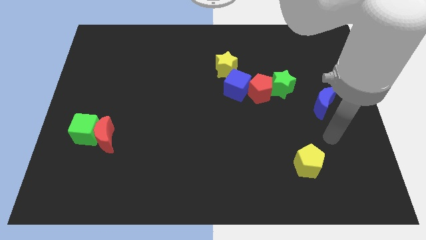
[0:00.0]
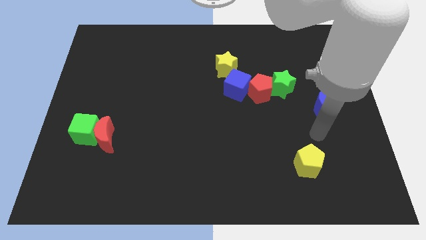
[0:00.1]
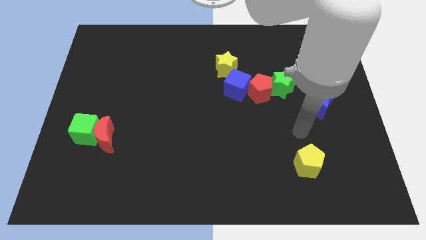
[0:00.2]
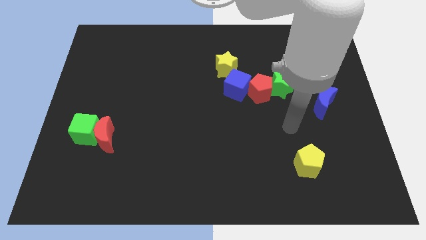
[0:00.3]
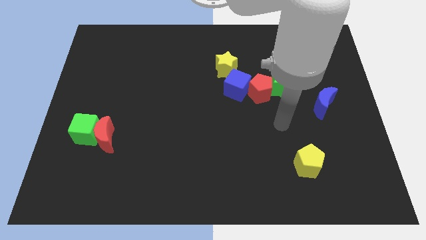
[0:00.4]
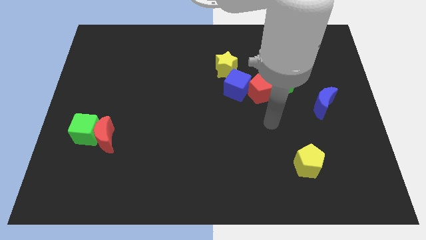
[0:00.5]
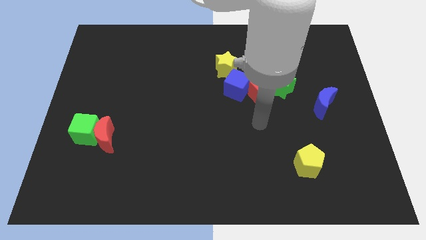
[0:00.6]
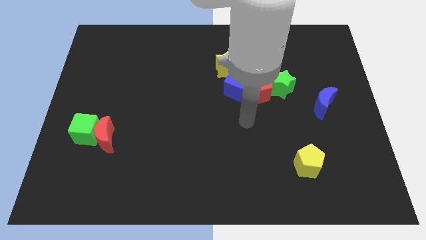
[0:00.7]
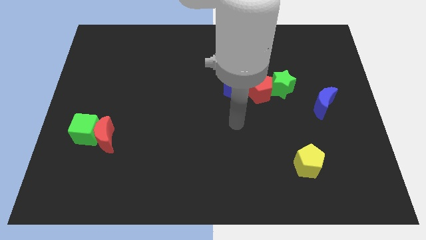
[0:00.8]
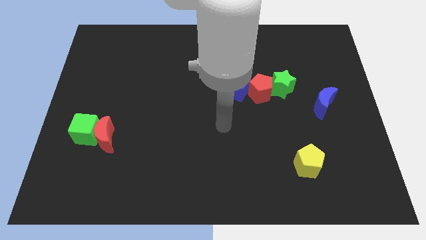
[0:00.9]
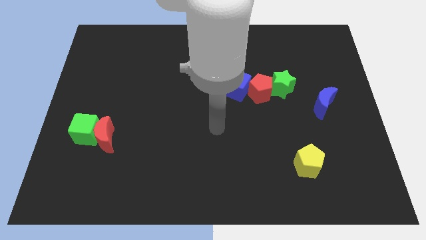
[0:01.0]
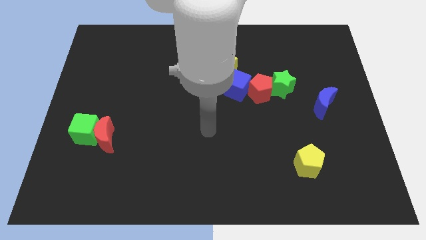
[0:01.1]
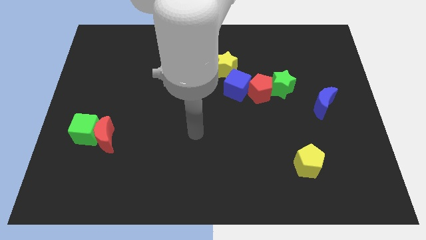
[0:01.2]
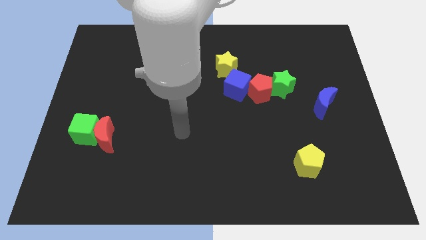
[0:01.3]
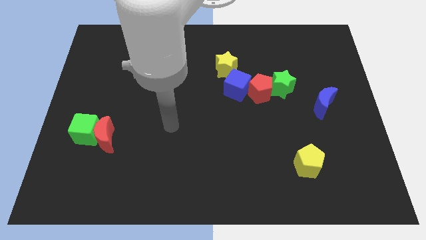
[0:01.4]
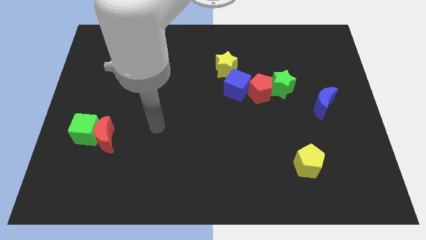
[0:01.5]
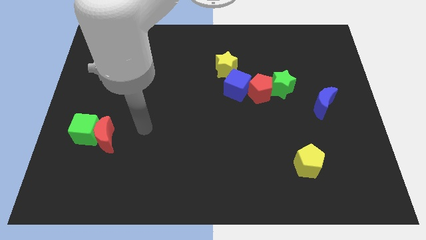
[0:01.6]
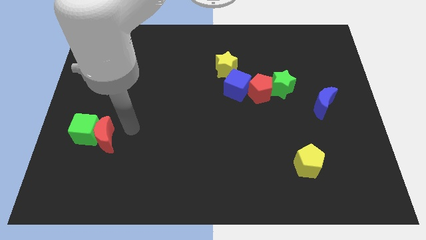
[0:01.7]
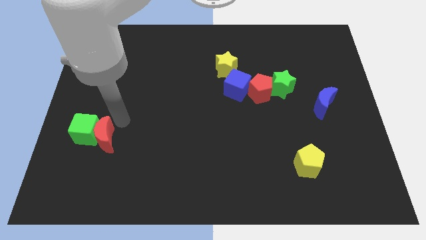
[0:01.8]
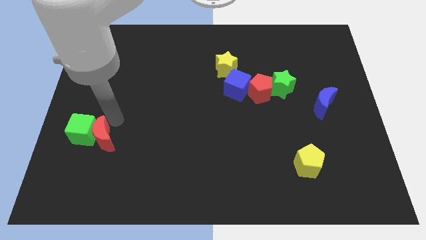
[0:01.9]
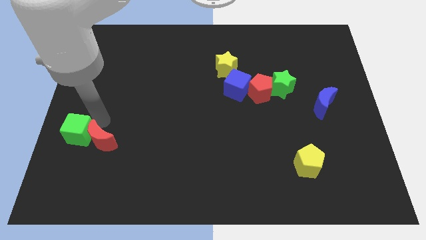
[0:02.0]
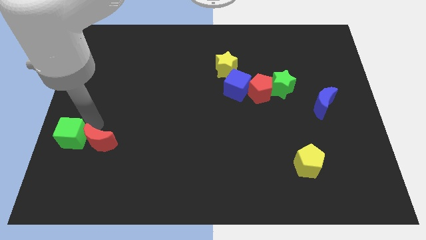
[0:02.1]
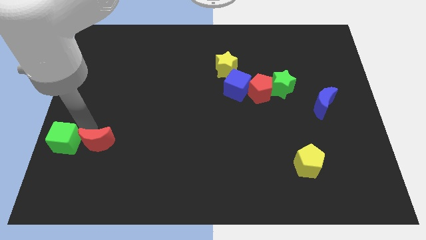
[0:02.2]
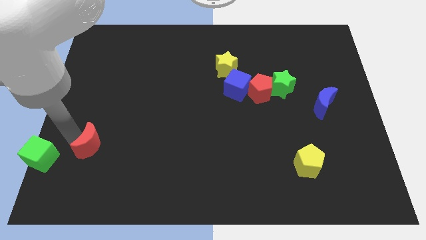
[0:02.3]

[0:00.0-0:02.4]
move the red moon away from the green cube

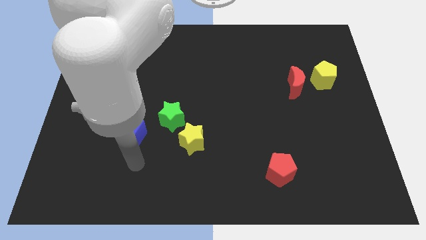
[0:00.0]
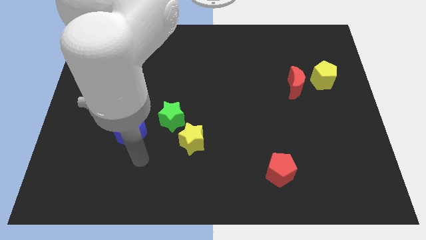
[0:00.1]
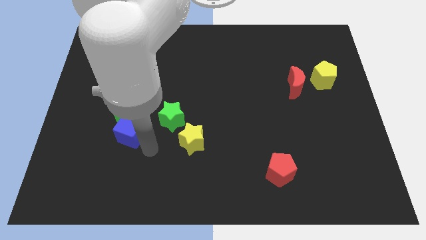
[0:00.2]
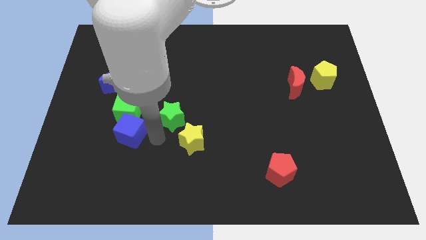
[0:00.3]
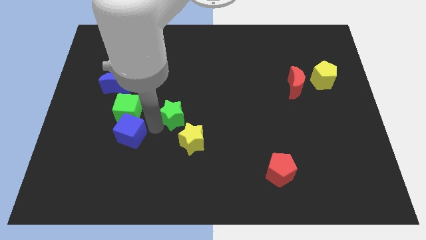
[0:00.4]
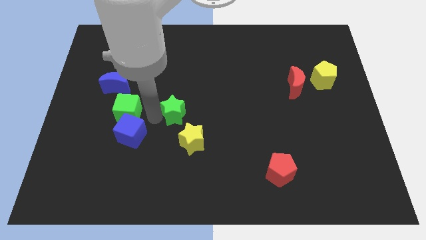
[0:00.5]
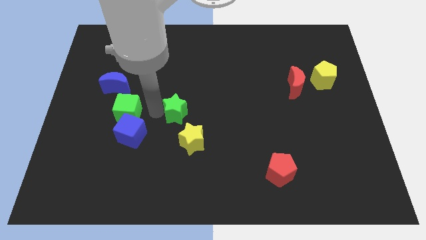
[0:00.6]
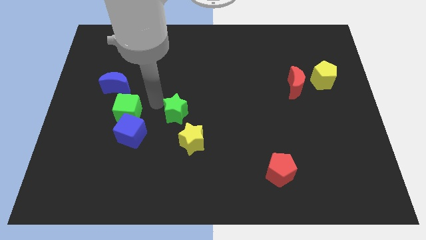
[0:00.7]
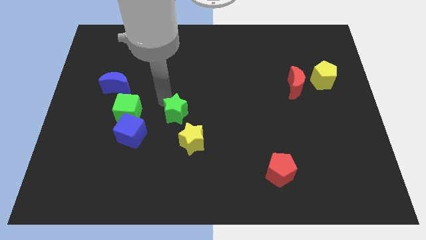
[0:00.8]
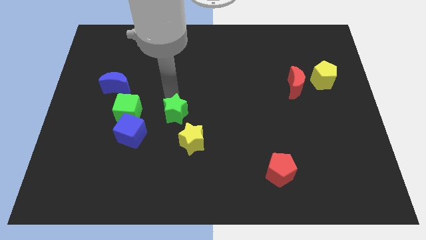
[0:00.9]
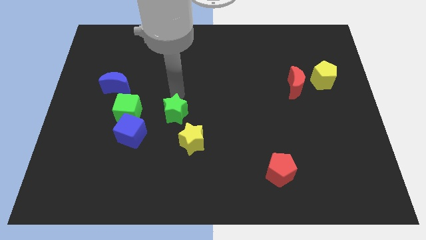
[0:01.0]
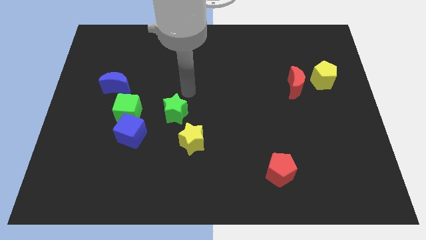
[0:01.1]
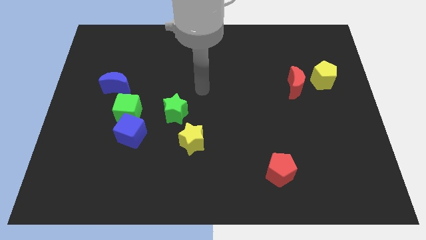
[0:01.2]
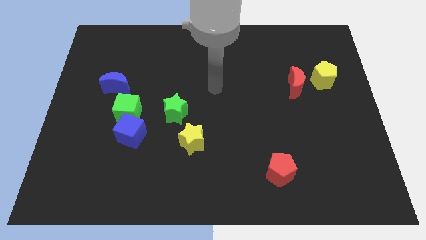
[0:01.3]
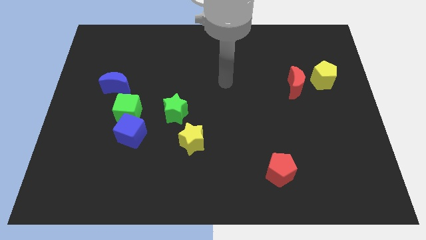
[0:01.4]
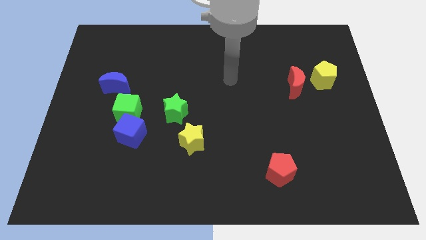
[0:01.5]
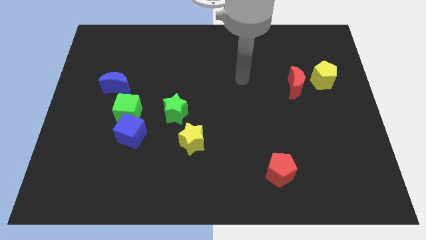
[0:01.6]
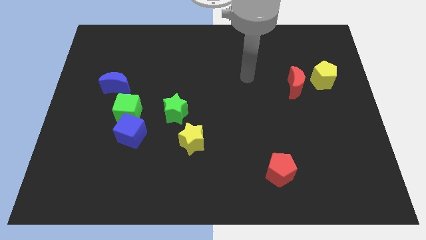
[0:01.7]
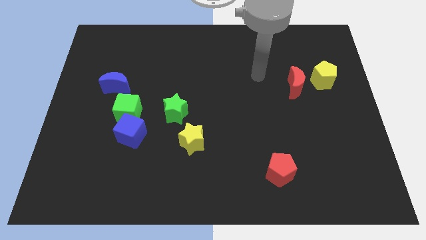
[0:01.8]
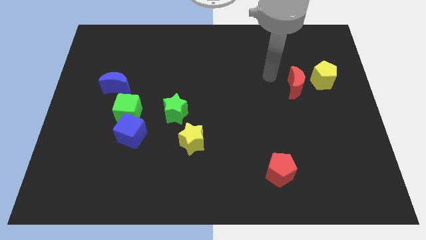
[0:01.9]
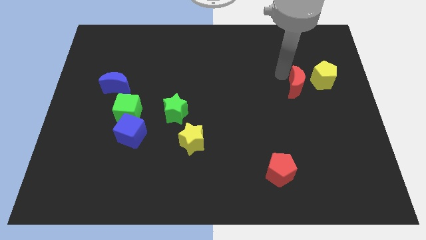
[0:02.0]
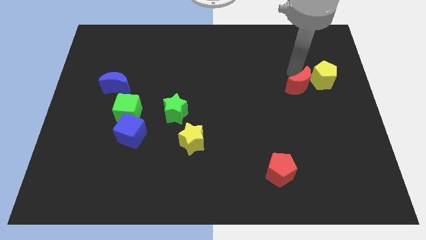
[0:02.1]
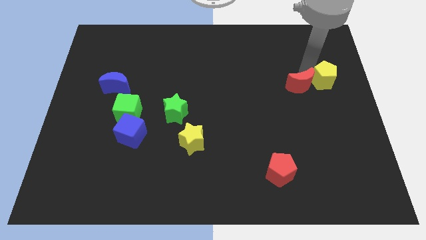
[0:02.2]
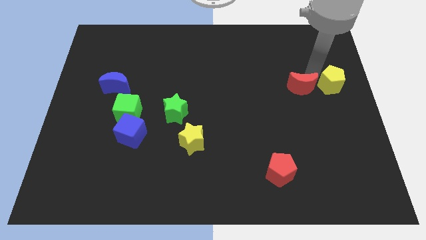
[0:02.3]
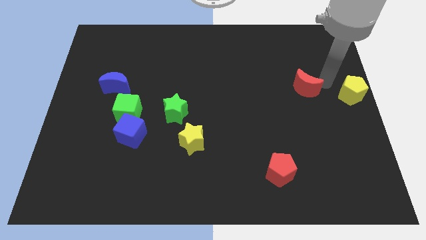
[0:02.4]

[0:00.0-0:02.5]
pull the red moon apart from the yellow pentagon

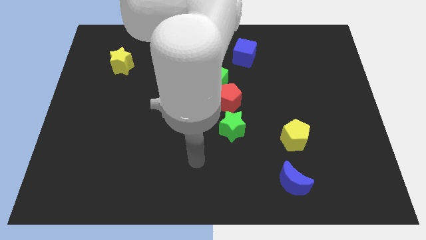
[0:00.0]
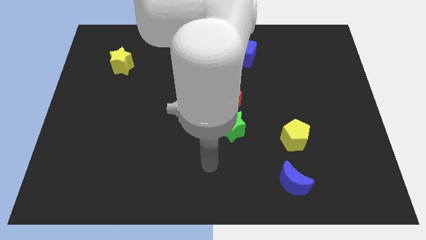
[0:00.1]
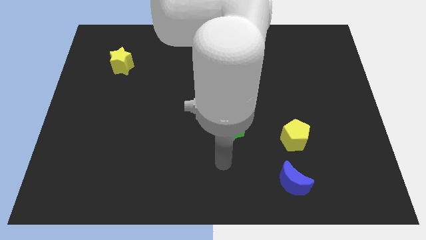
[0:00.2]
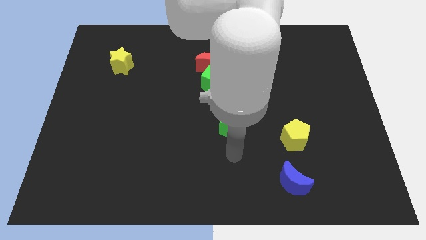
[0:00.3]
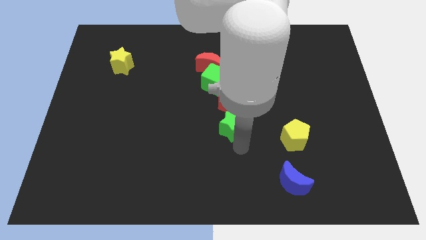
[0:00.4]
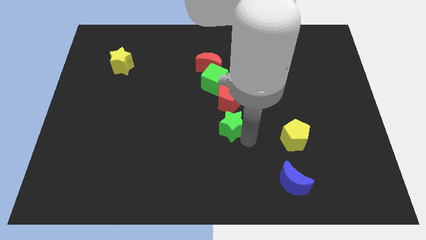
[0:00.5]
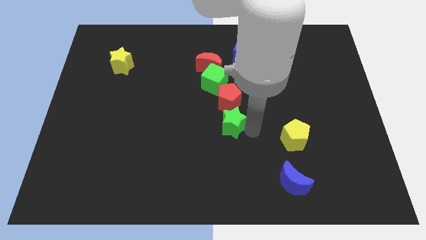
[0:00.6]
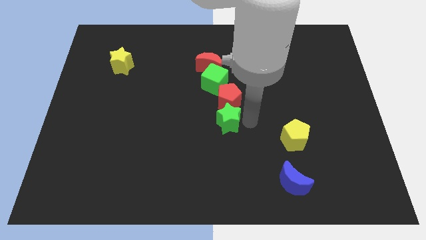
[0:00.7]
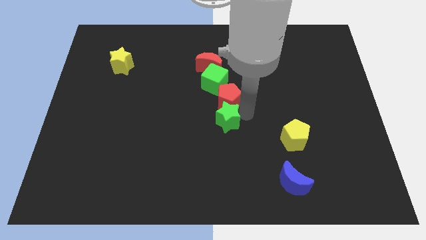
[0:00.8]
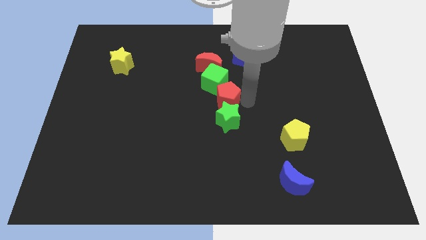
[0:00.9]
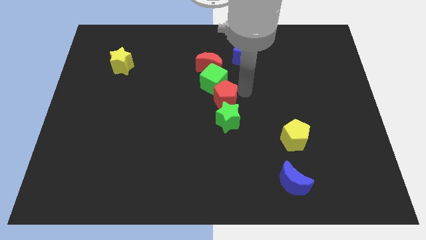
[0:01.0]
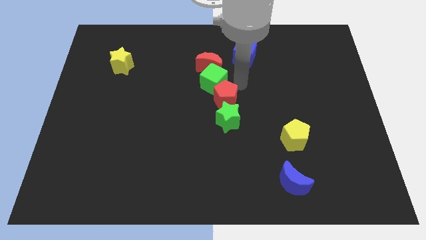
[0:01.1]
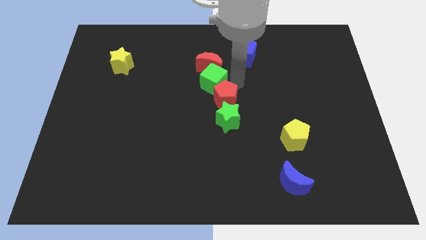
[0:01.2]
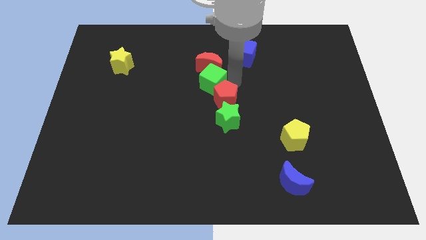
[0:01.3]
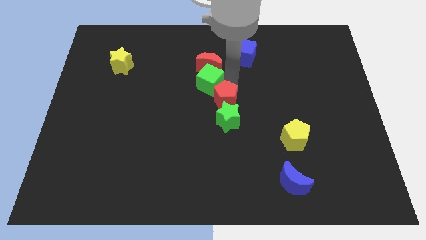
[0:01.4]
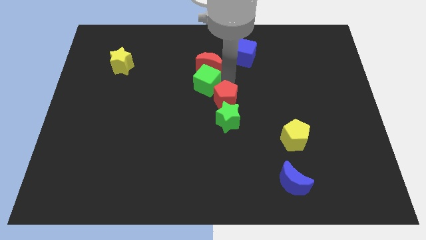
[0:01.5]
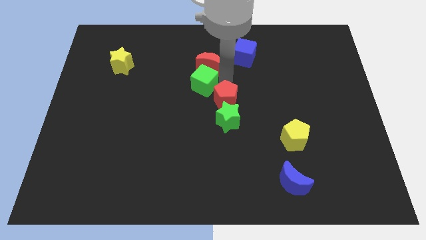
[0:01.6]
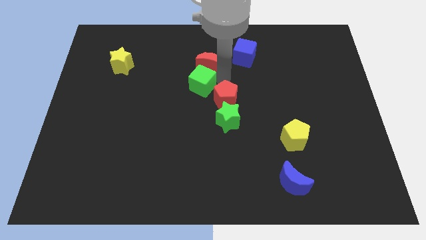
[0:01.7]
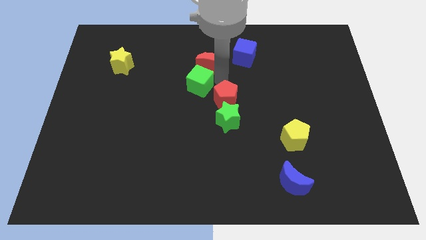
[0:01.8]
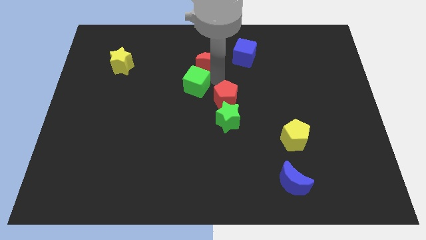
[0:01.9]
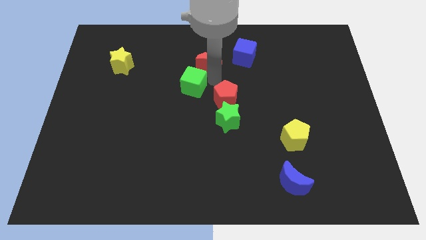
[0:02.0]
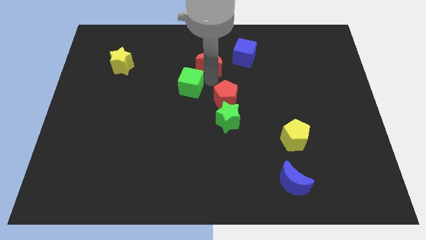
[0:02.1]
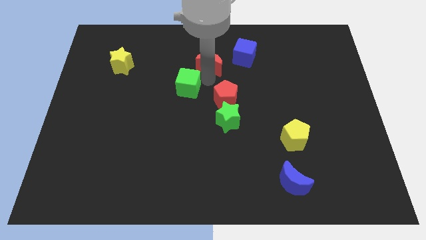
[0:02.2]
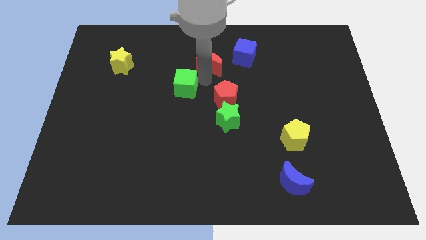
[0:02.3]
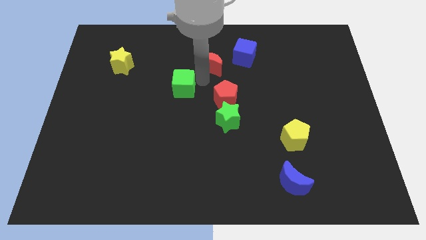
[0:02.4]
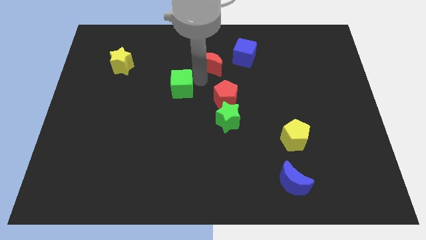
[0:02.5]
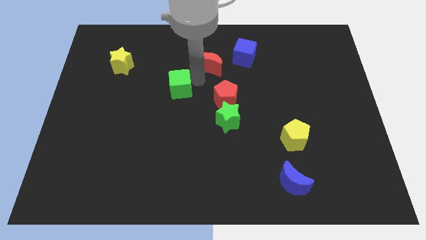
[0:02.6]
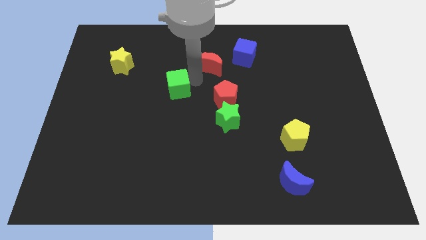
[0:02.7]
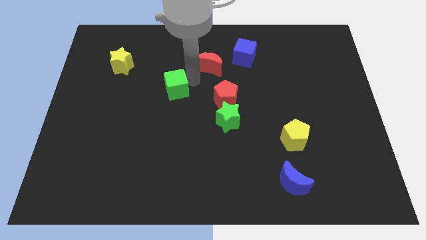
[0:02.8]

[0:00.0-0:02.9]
move the green cube away from the red moon and red pentagon

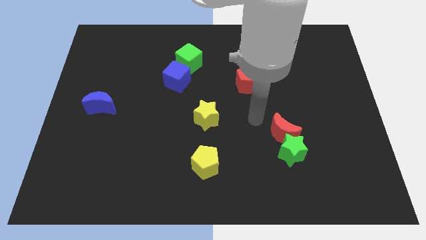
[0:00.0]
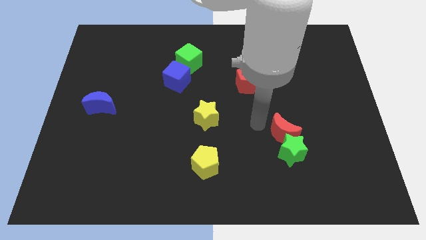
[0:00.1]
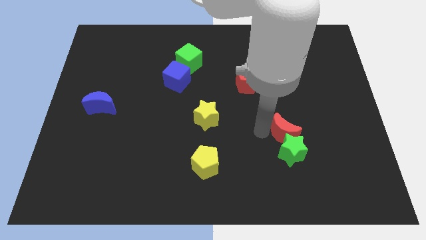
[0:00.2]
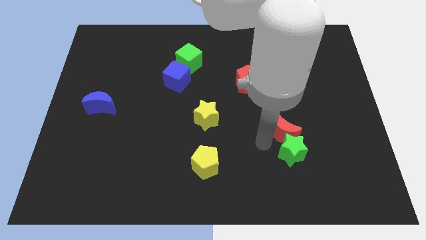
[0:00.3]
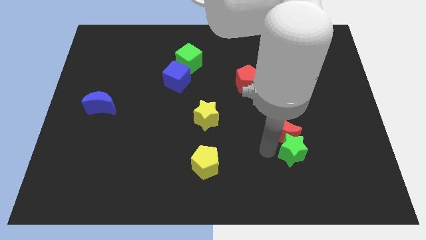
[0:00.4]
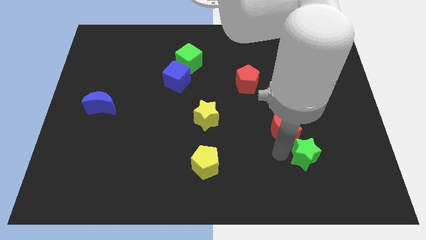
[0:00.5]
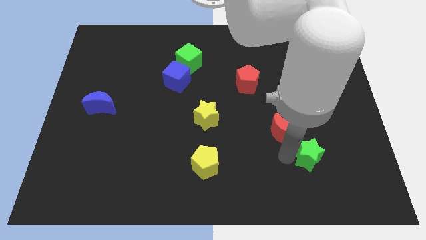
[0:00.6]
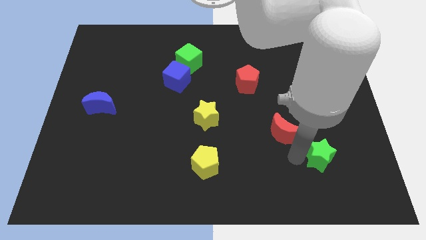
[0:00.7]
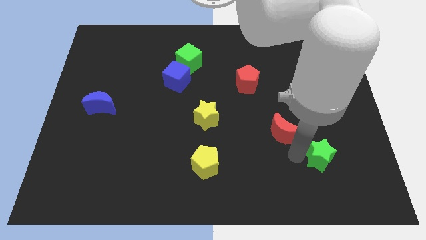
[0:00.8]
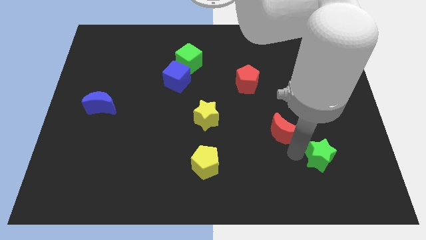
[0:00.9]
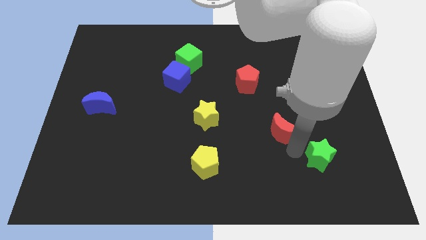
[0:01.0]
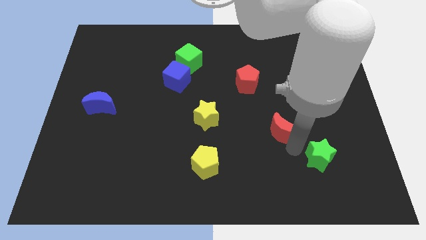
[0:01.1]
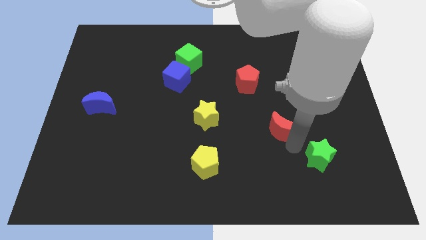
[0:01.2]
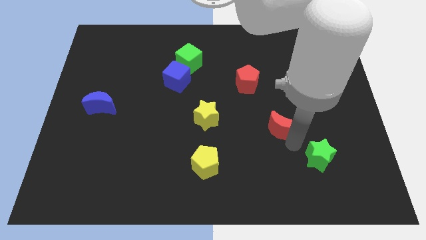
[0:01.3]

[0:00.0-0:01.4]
pull the red moon apart from the green star

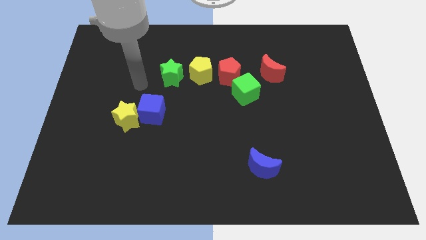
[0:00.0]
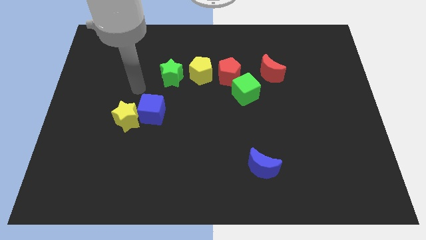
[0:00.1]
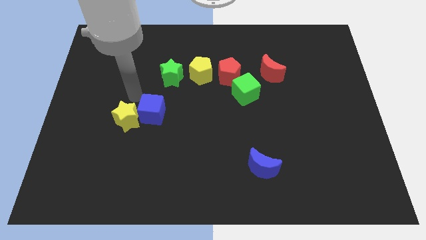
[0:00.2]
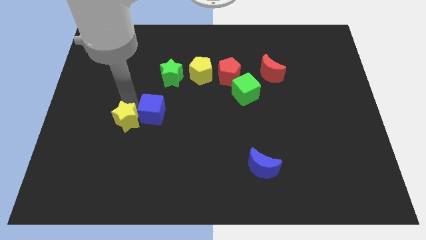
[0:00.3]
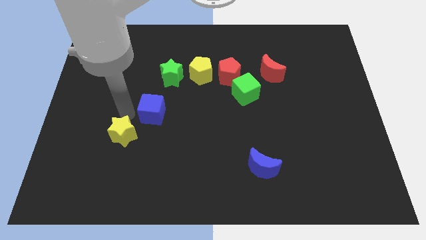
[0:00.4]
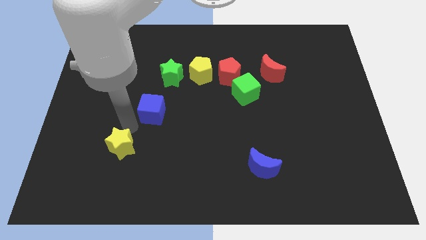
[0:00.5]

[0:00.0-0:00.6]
separate the blue cube from the yellow star
